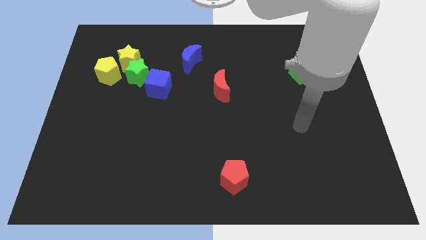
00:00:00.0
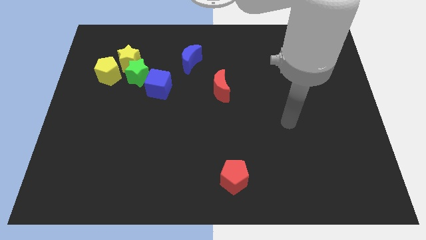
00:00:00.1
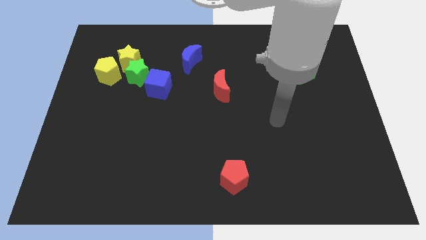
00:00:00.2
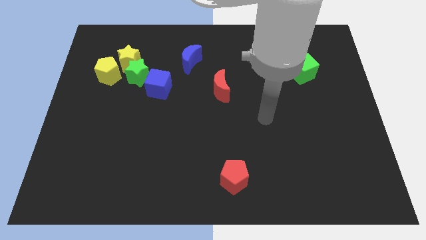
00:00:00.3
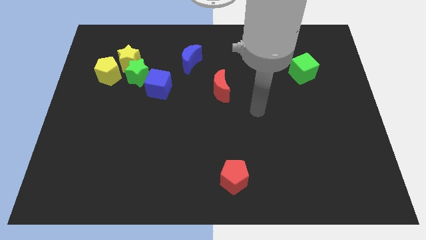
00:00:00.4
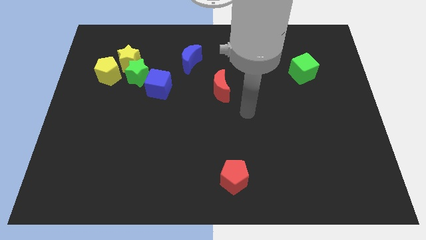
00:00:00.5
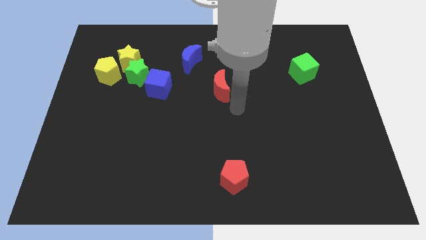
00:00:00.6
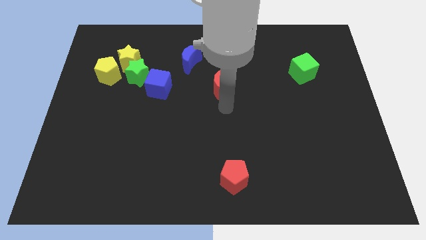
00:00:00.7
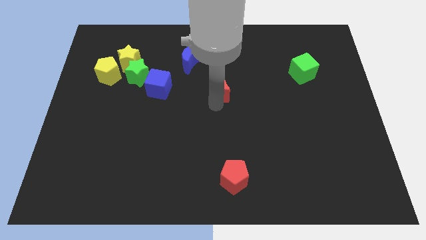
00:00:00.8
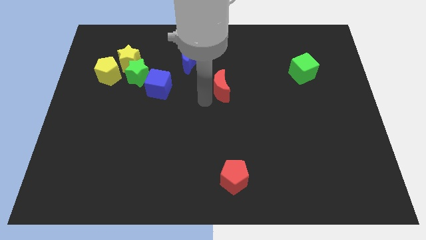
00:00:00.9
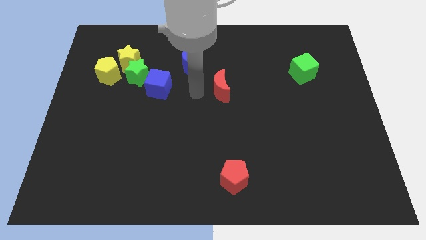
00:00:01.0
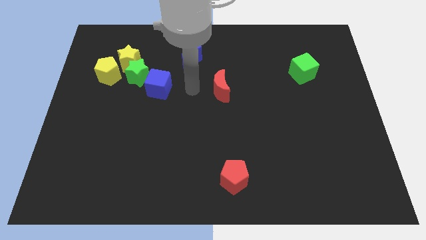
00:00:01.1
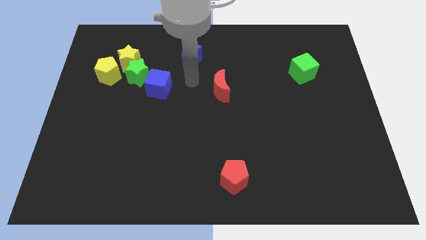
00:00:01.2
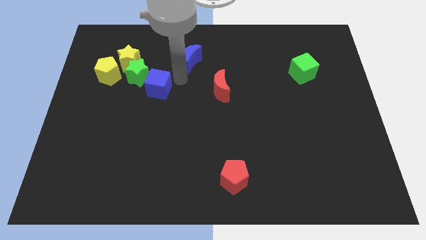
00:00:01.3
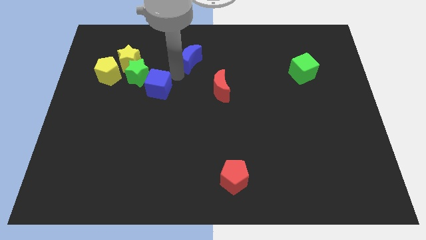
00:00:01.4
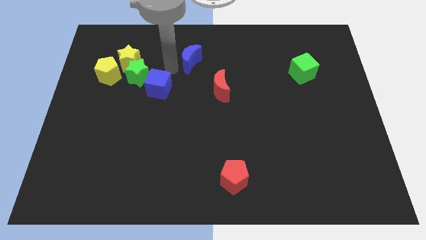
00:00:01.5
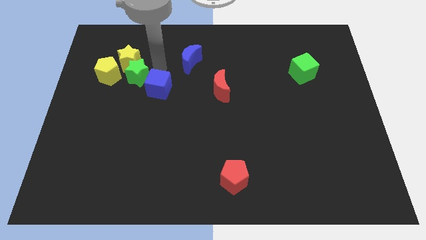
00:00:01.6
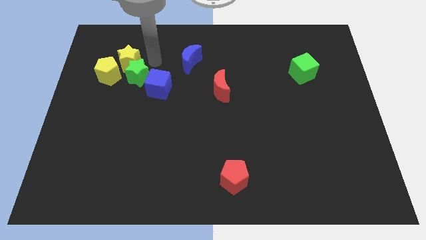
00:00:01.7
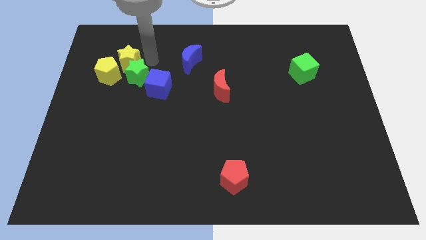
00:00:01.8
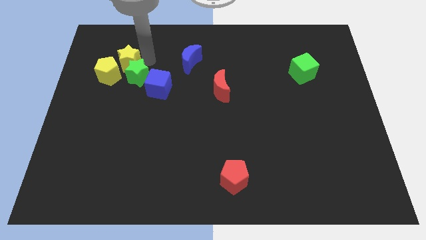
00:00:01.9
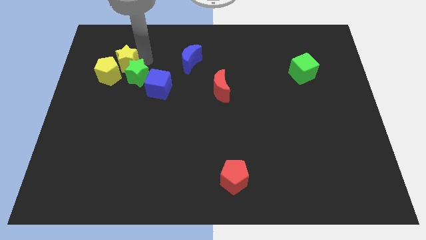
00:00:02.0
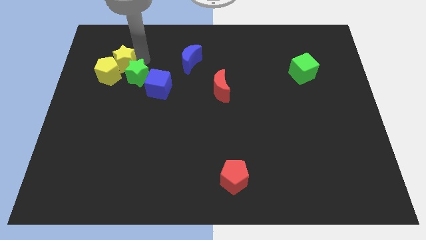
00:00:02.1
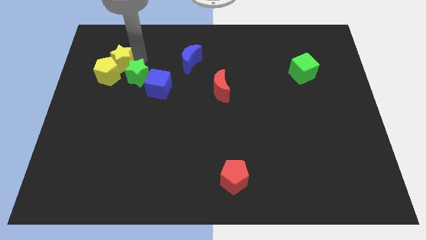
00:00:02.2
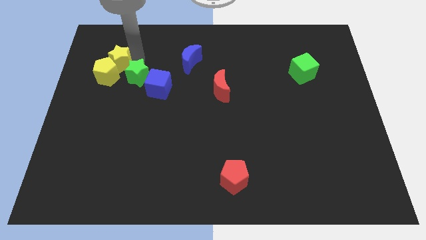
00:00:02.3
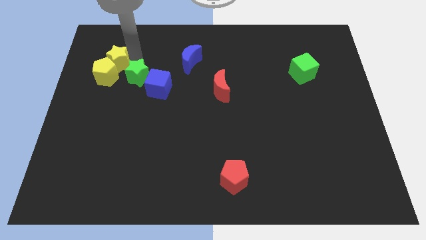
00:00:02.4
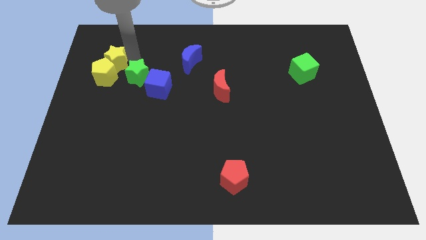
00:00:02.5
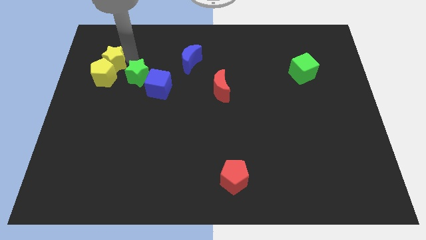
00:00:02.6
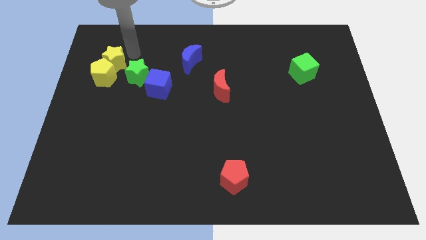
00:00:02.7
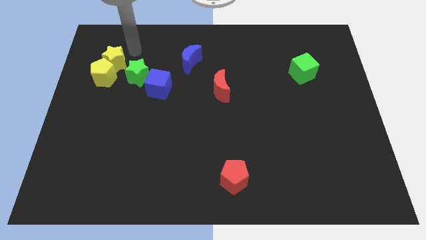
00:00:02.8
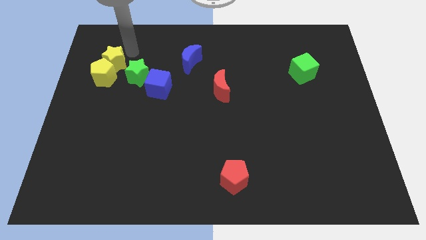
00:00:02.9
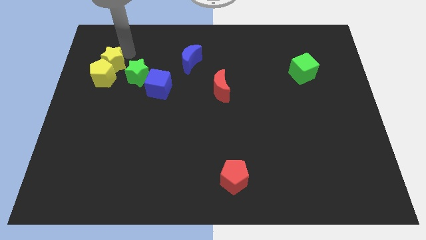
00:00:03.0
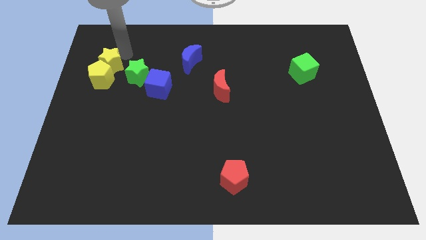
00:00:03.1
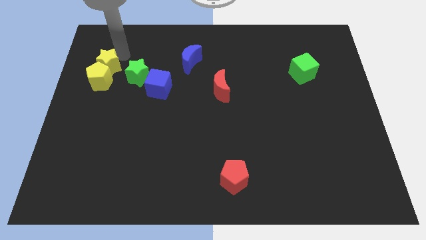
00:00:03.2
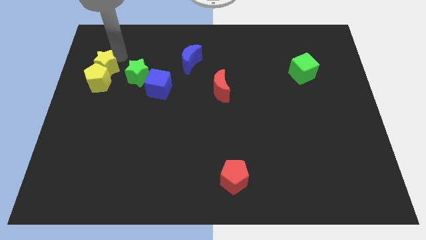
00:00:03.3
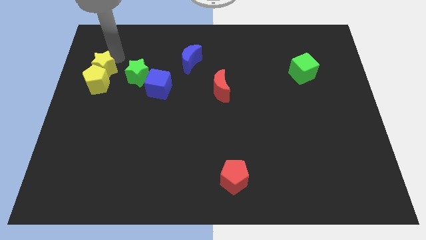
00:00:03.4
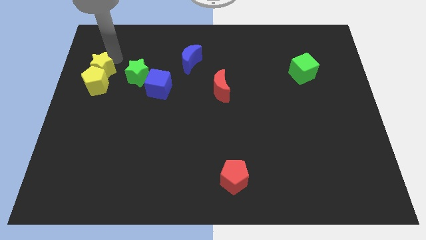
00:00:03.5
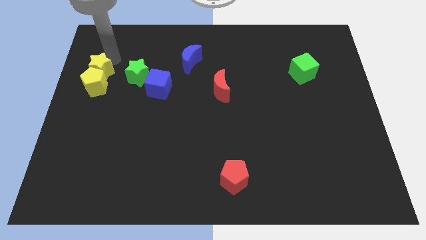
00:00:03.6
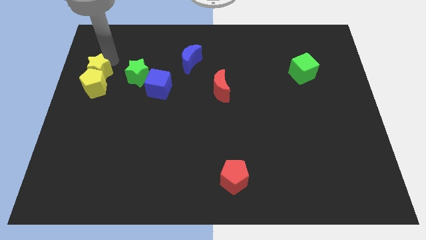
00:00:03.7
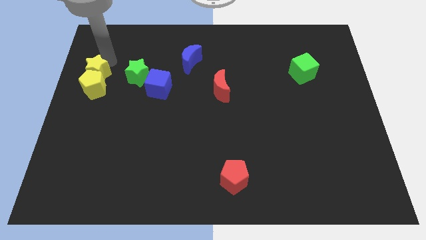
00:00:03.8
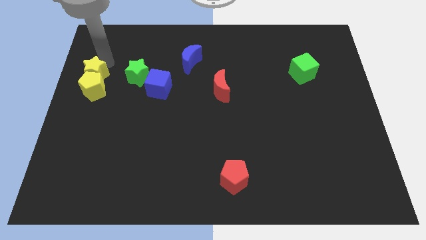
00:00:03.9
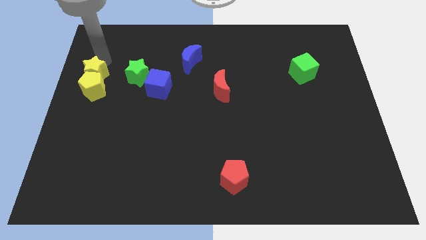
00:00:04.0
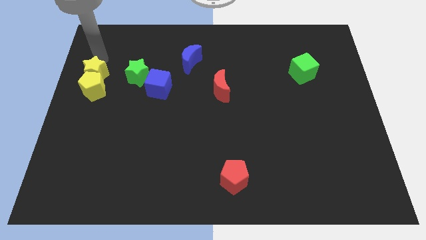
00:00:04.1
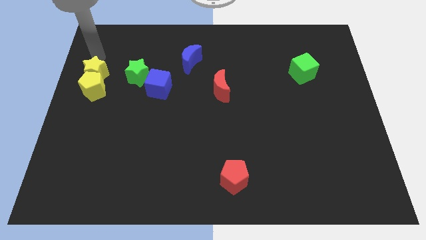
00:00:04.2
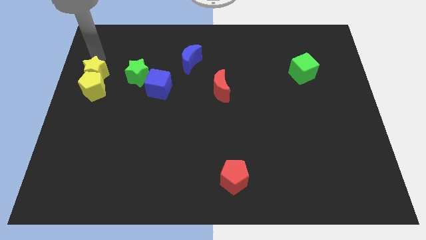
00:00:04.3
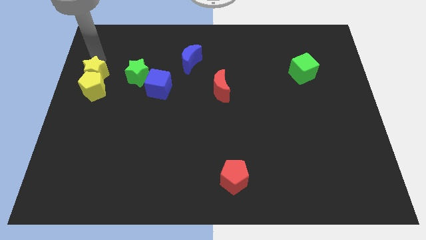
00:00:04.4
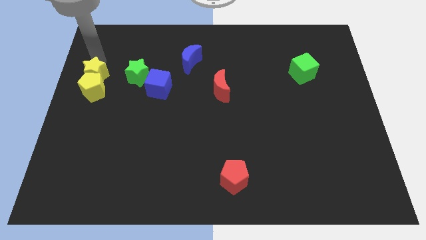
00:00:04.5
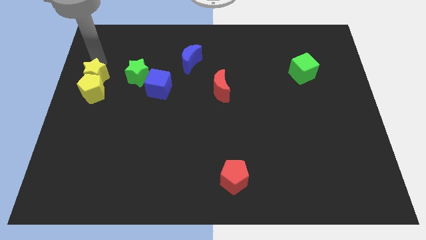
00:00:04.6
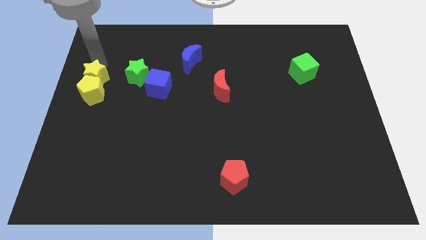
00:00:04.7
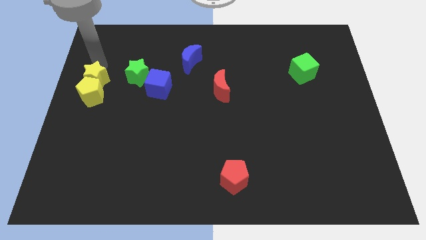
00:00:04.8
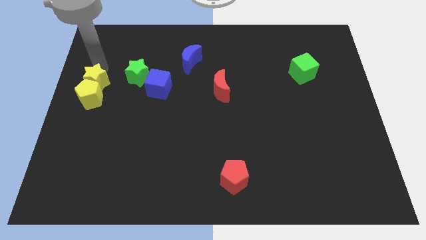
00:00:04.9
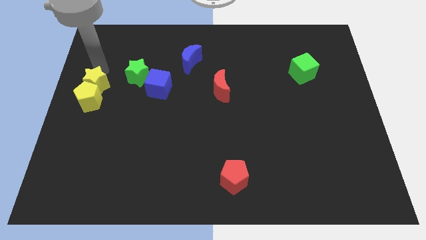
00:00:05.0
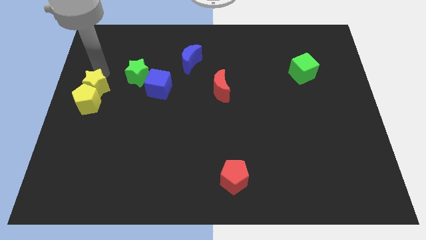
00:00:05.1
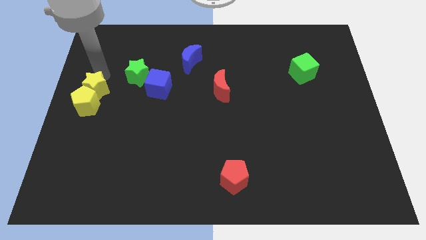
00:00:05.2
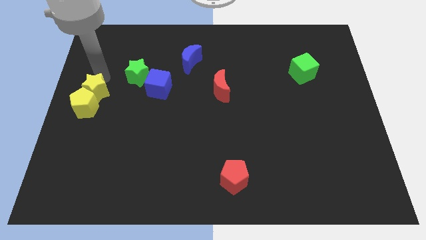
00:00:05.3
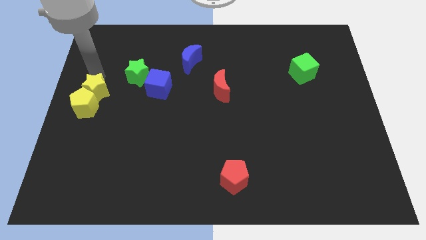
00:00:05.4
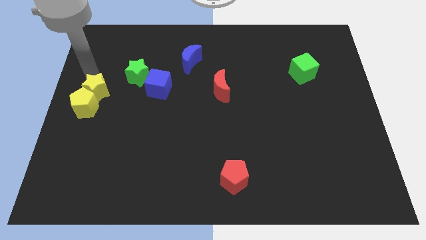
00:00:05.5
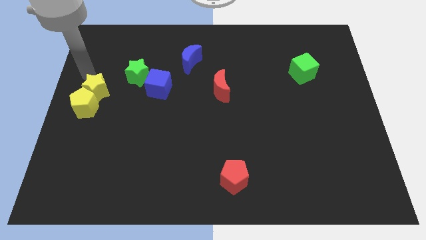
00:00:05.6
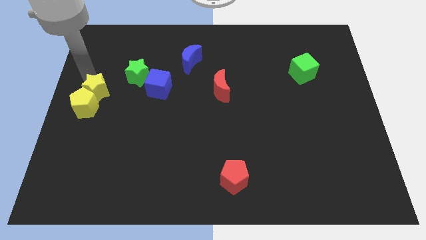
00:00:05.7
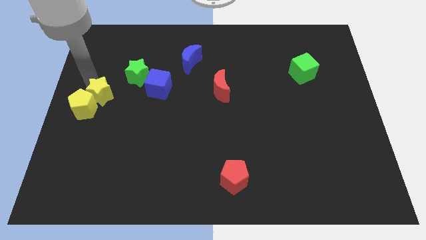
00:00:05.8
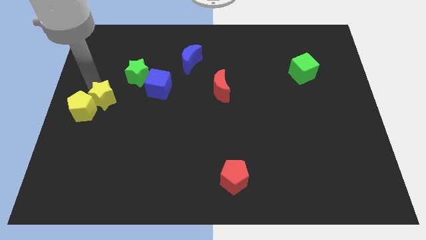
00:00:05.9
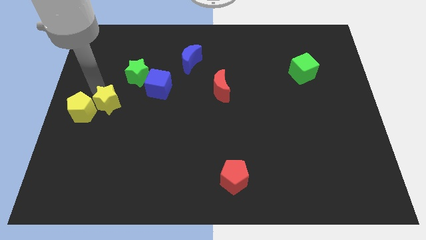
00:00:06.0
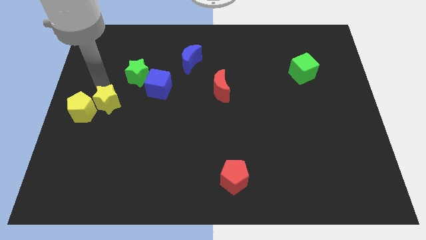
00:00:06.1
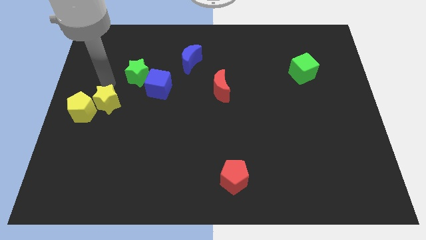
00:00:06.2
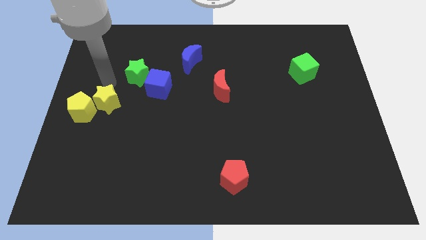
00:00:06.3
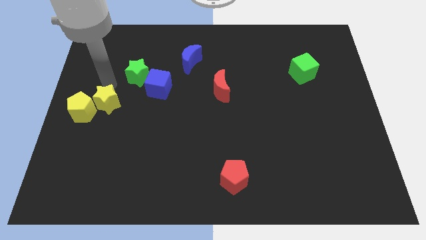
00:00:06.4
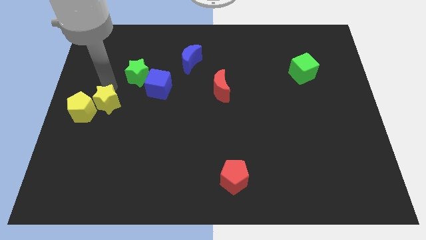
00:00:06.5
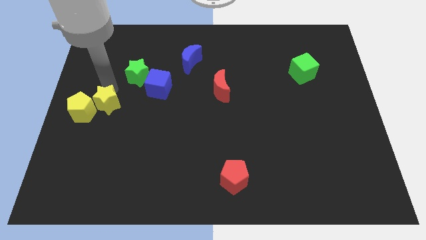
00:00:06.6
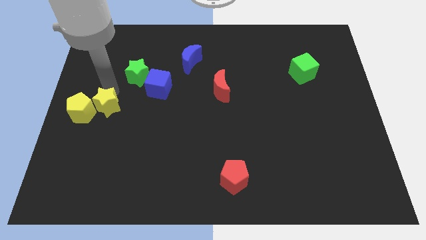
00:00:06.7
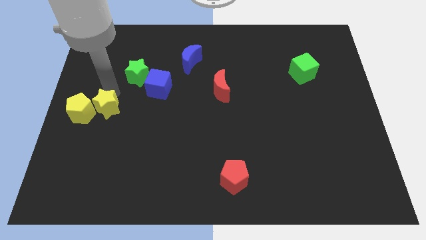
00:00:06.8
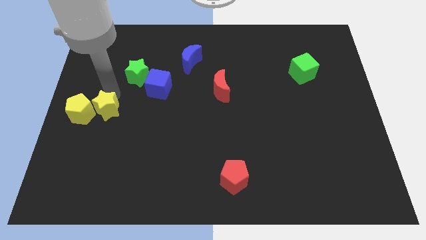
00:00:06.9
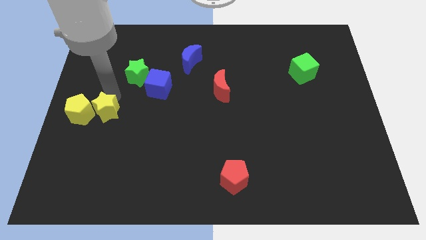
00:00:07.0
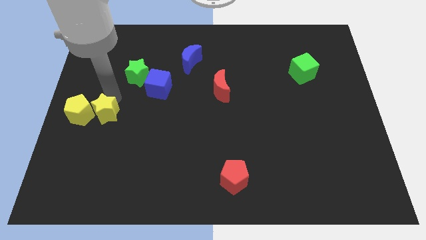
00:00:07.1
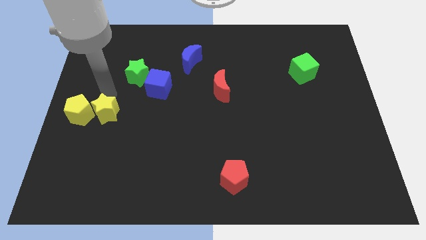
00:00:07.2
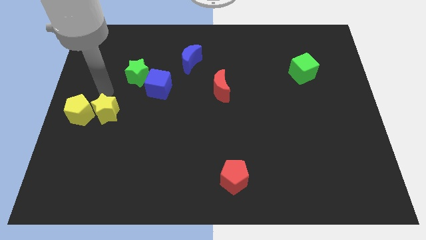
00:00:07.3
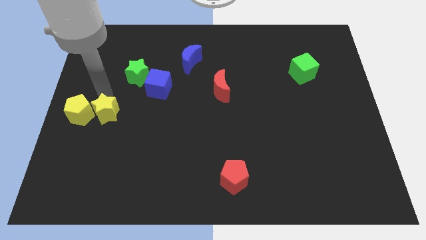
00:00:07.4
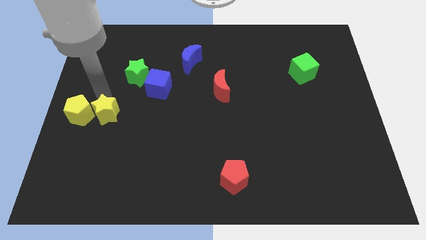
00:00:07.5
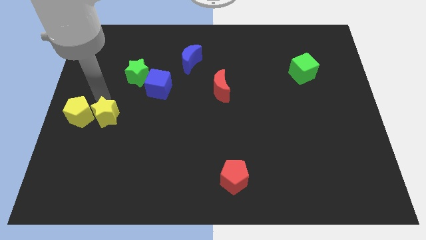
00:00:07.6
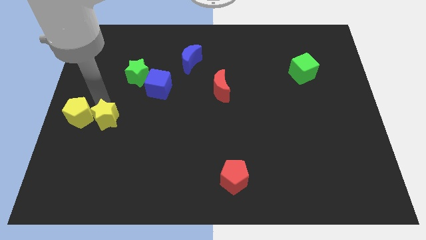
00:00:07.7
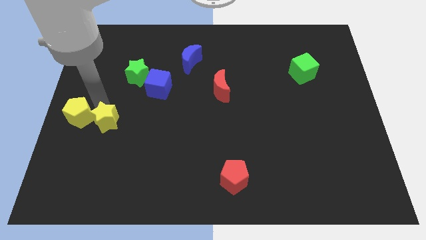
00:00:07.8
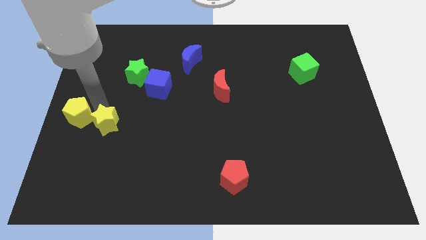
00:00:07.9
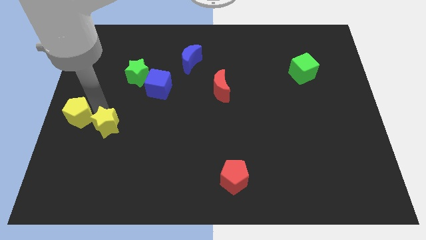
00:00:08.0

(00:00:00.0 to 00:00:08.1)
push the yellow star downwards
